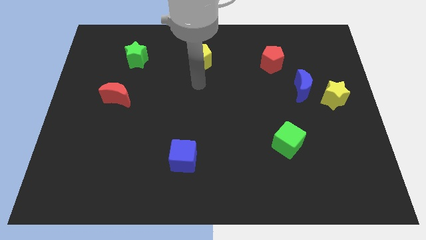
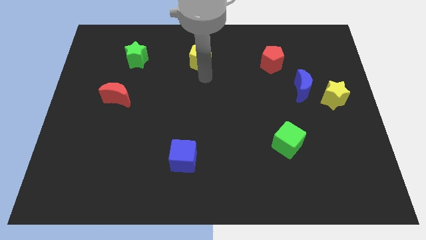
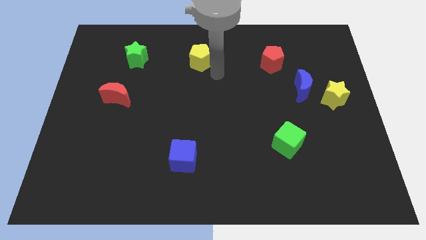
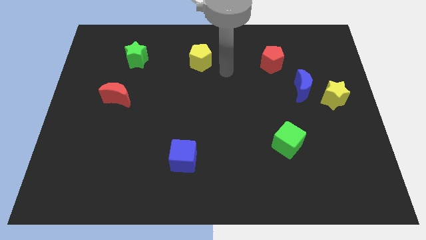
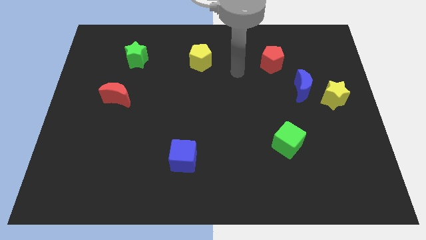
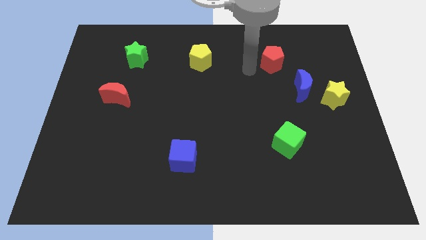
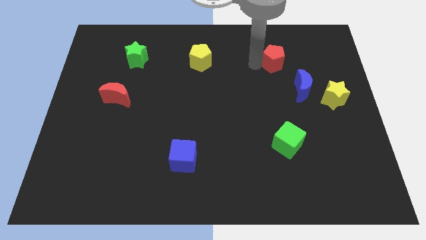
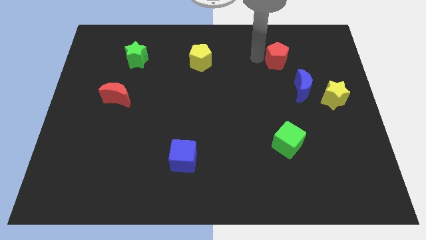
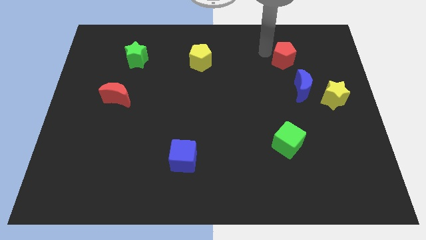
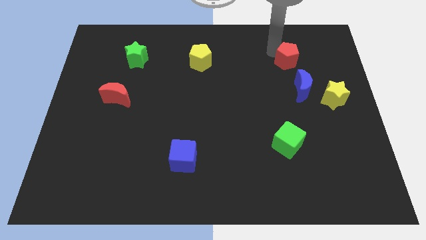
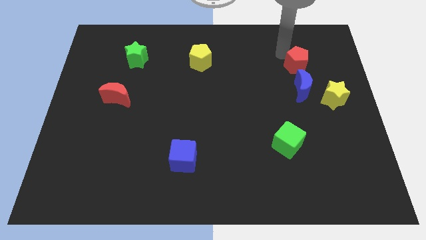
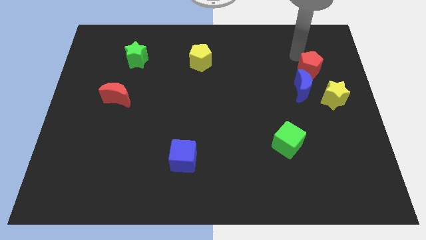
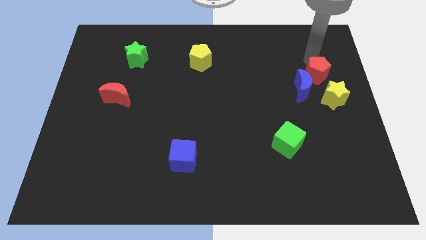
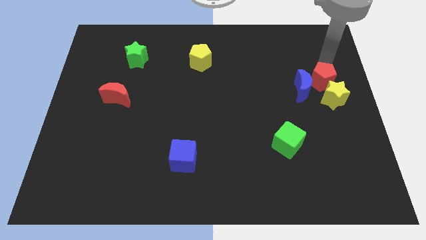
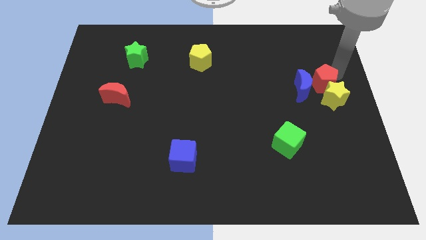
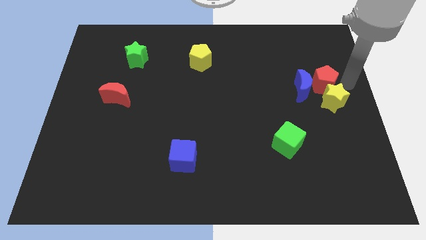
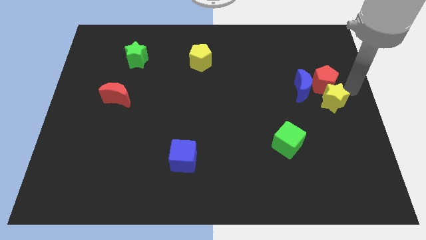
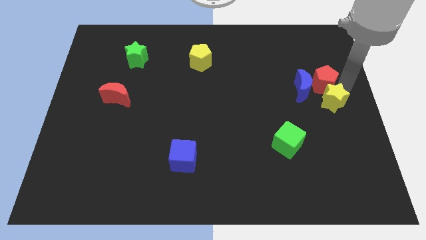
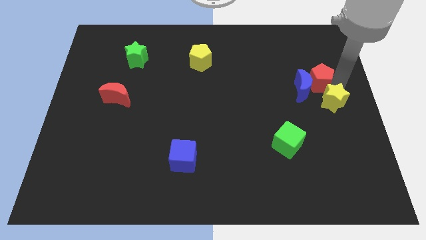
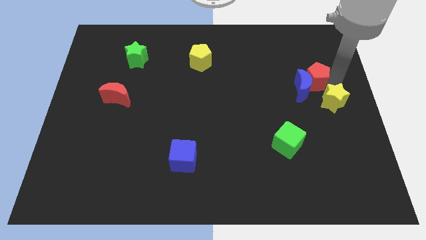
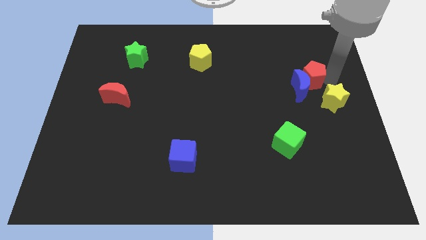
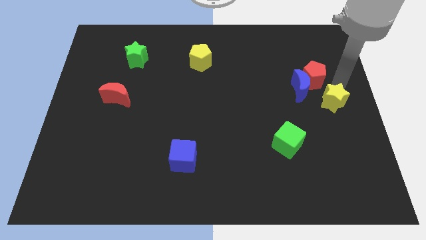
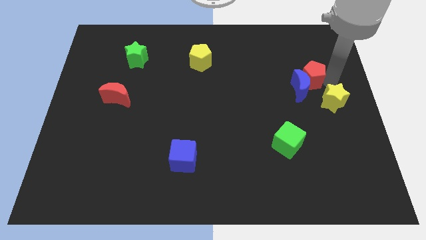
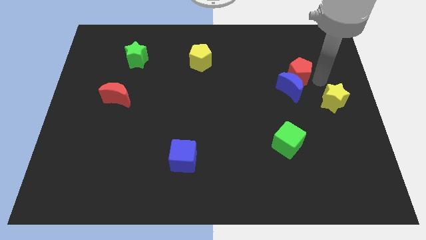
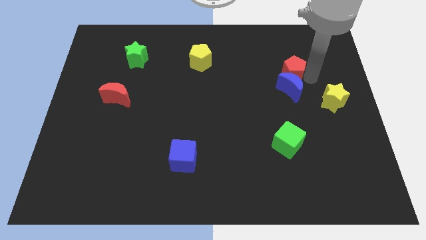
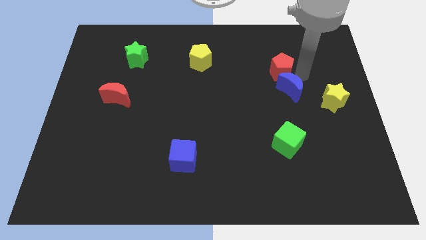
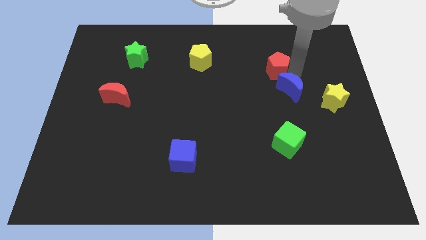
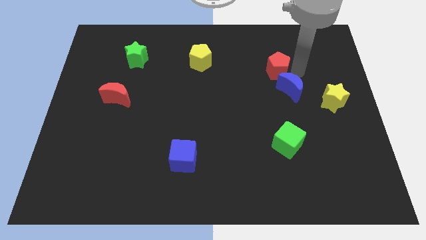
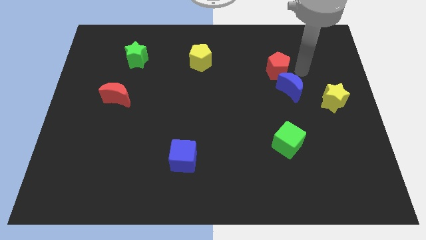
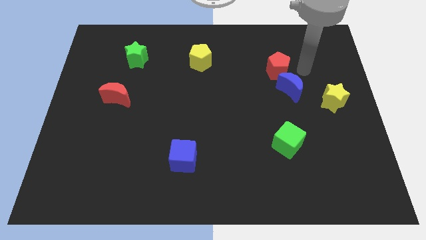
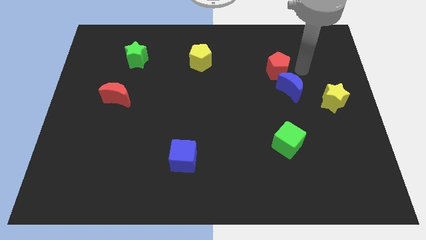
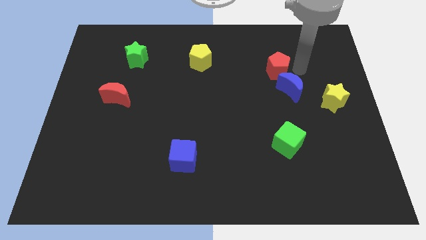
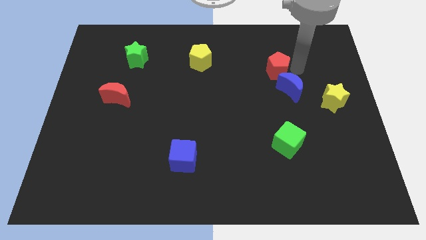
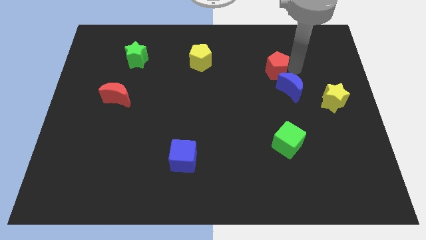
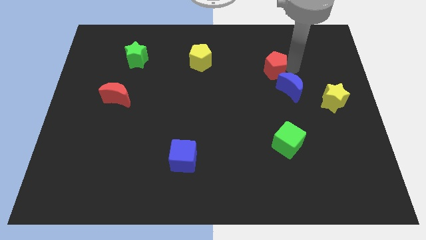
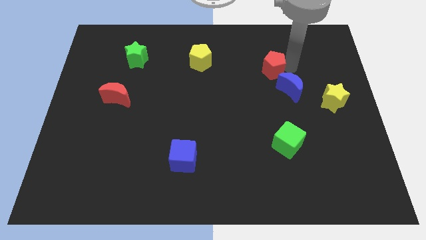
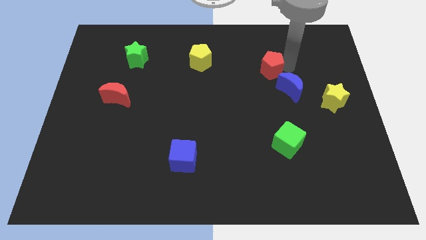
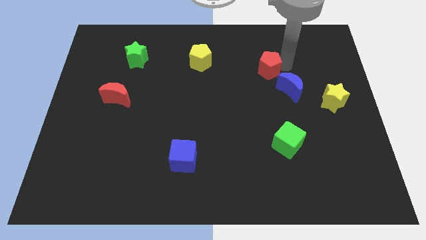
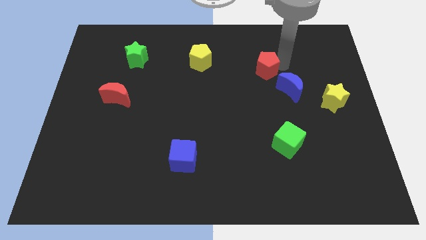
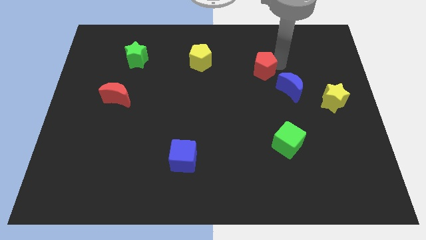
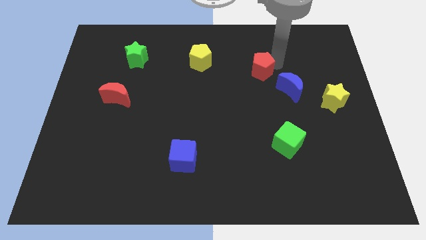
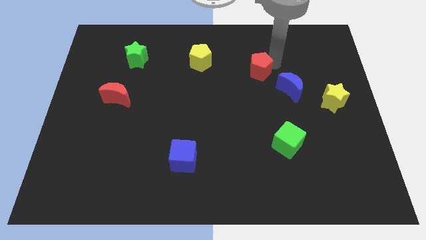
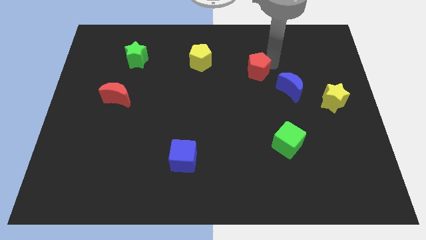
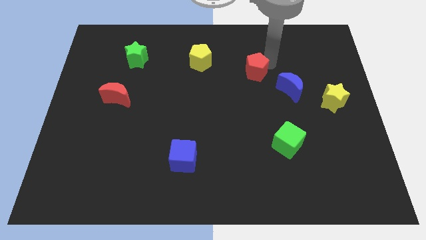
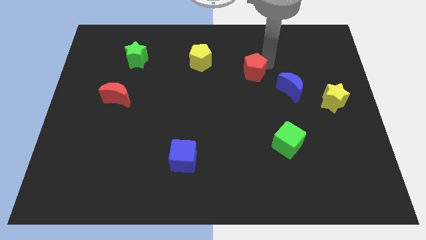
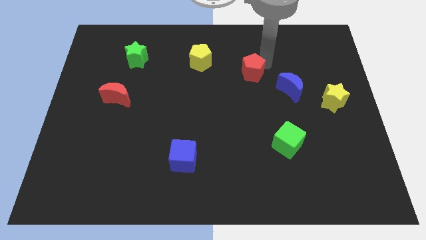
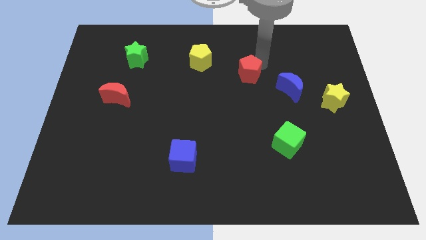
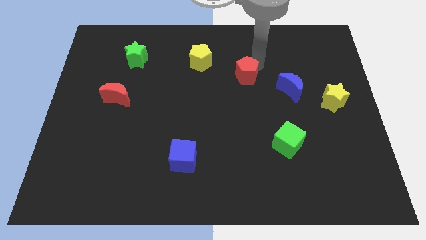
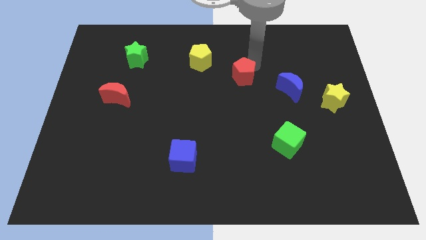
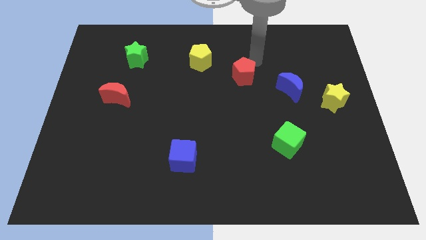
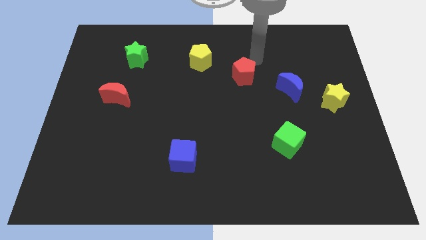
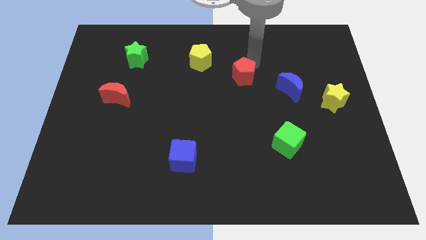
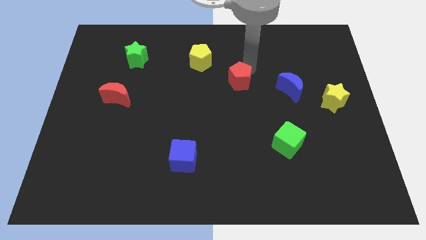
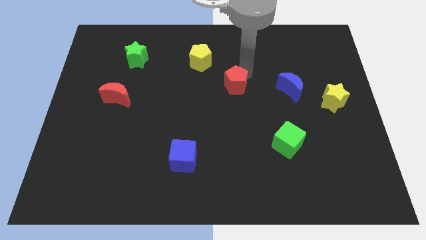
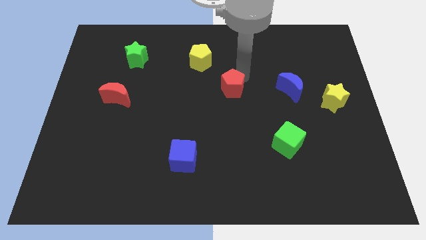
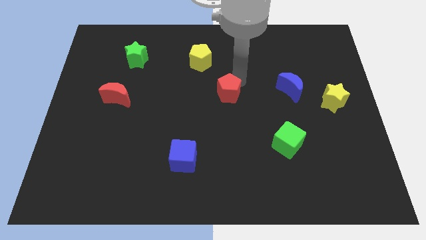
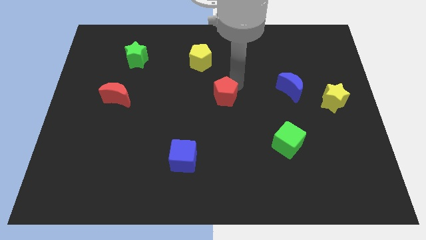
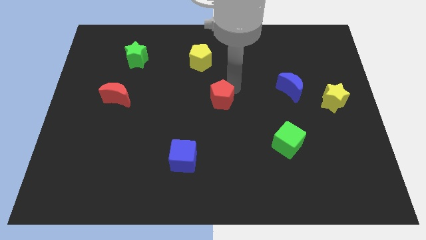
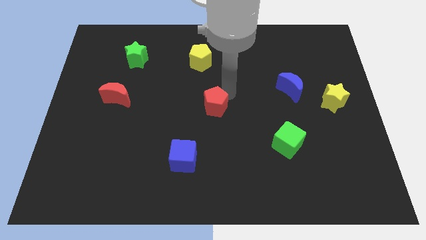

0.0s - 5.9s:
push the red pentagon downwards and left

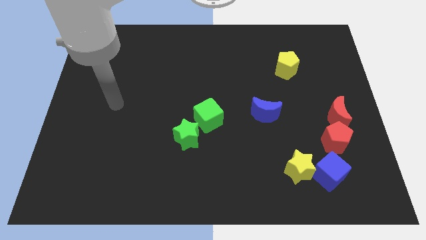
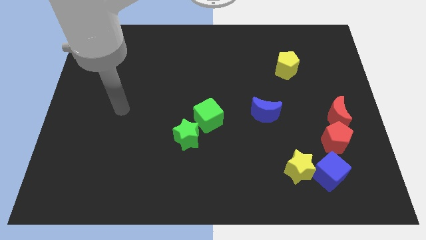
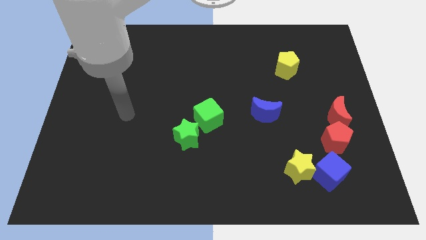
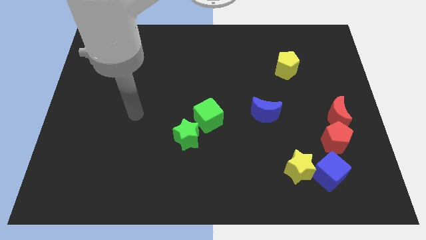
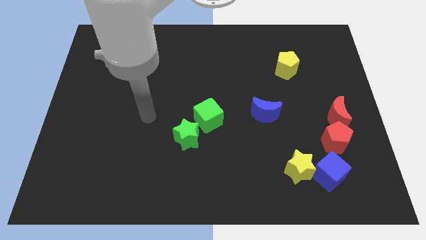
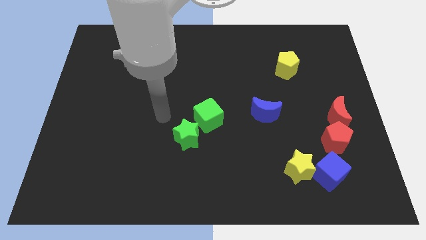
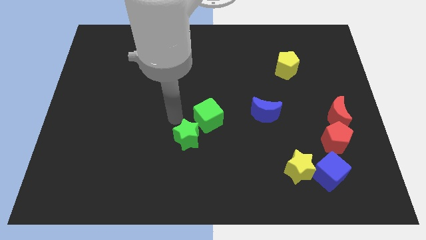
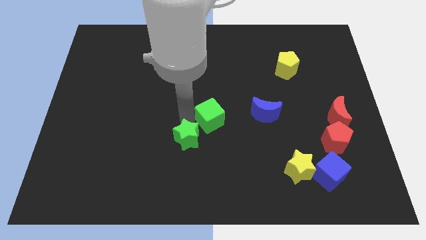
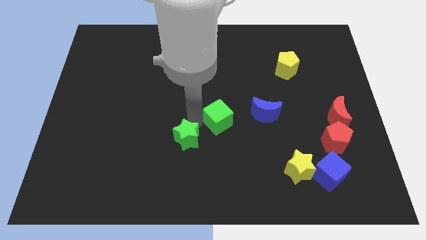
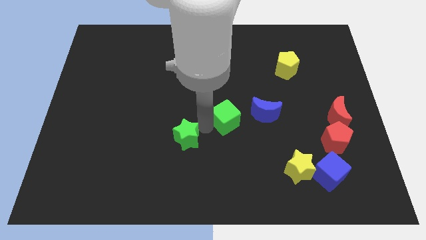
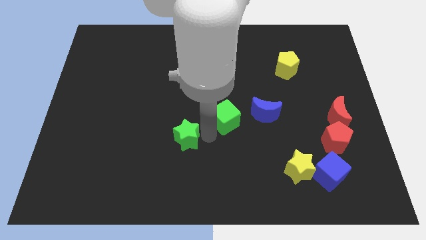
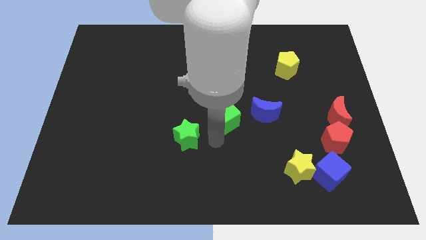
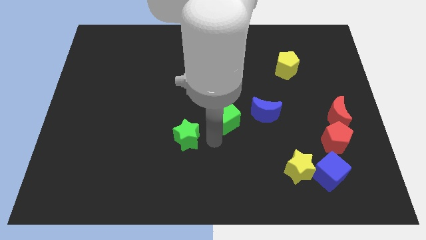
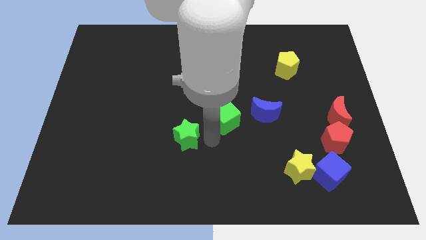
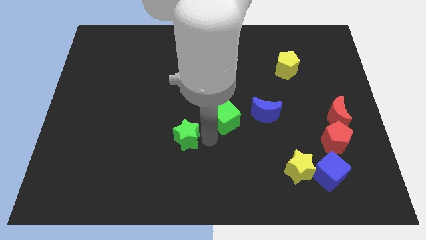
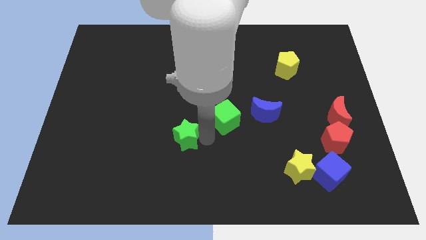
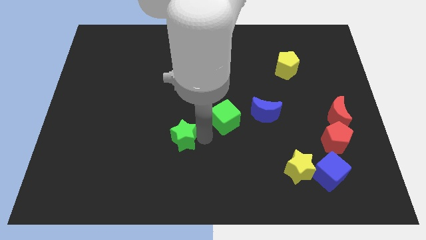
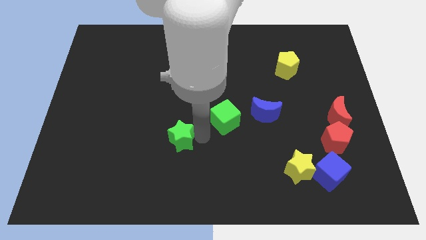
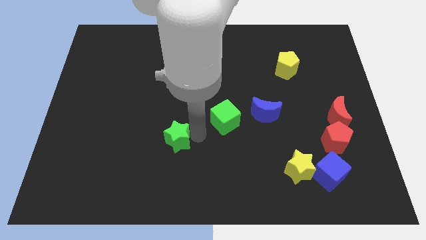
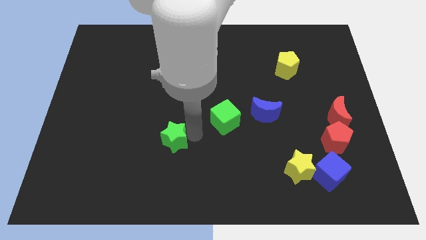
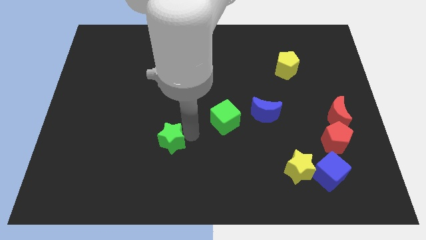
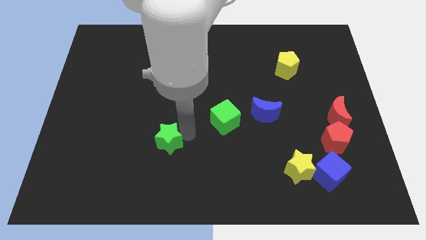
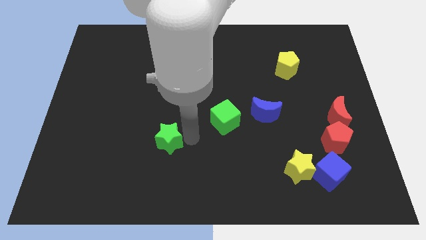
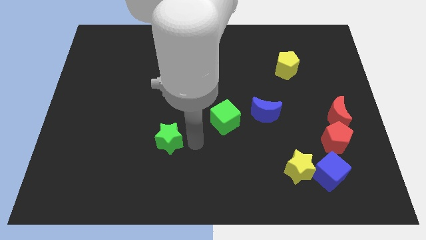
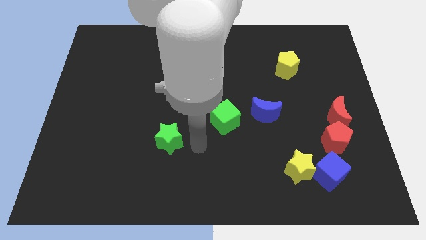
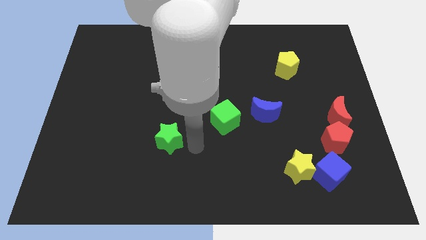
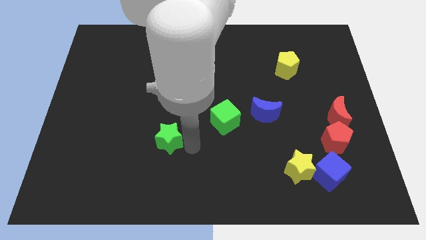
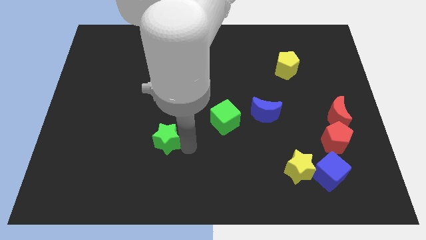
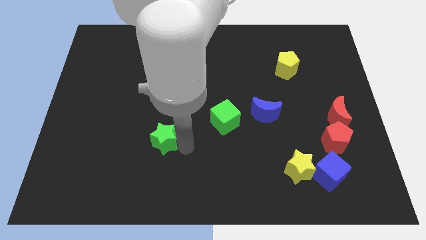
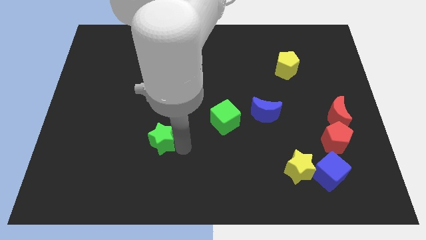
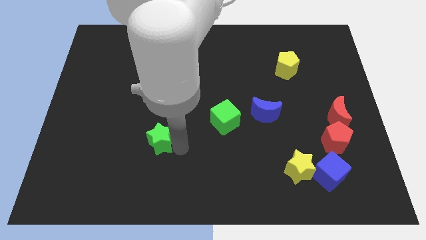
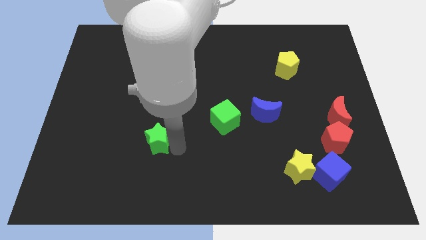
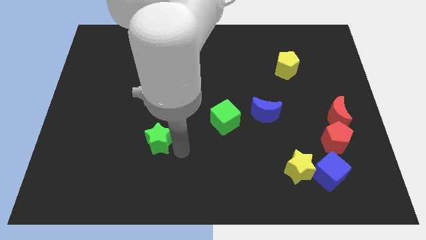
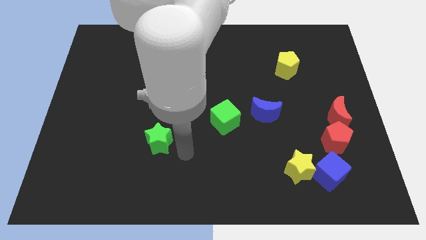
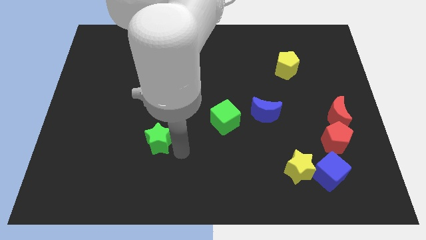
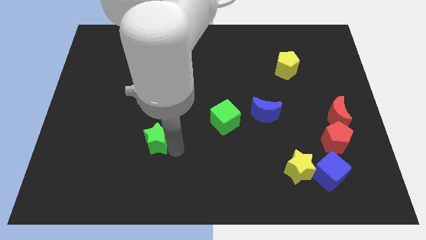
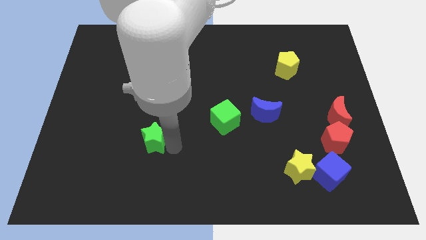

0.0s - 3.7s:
move the green star a little to the left
